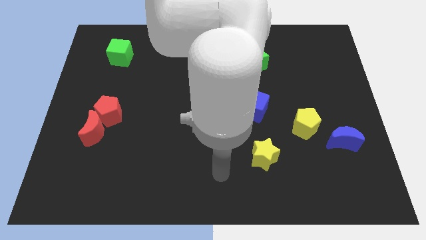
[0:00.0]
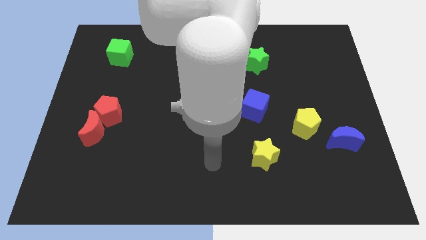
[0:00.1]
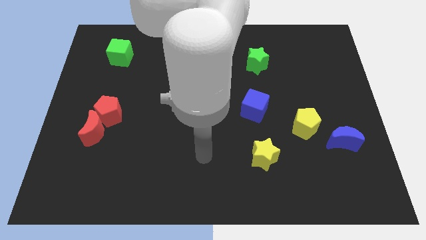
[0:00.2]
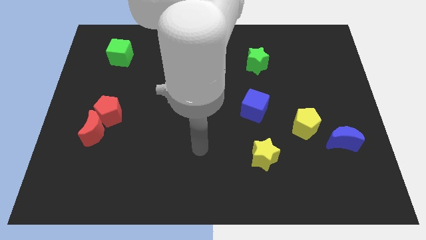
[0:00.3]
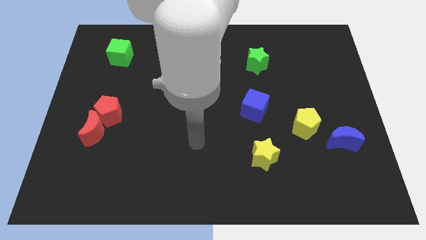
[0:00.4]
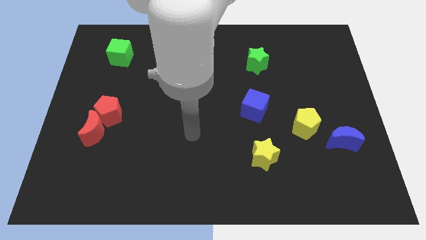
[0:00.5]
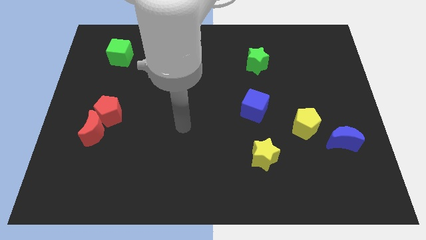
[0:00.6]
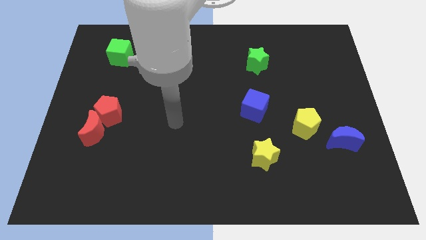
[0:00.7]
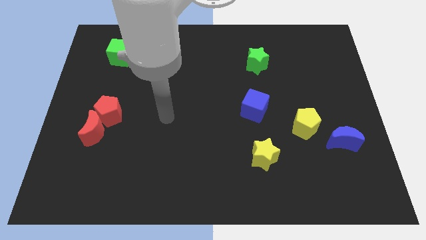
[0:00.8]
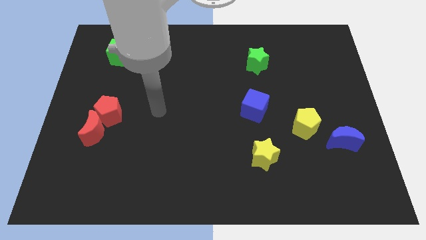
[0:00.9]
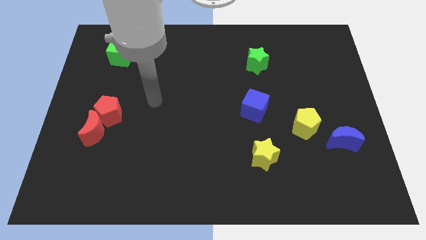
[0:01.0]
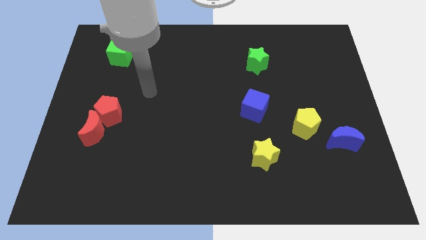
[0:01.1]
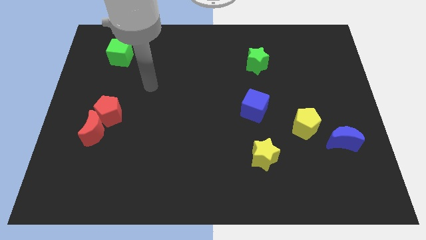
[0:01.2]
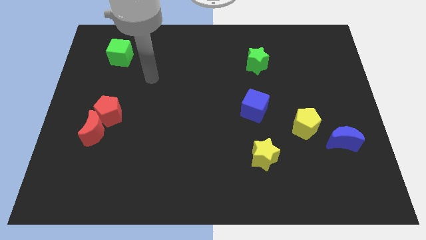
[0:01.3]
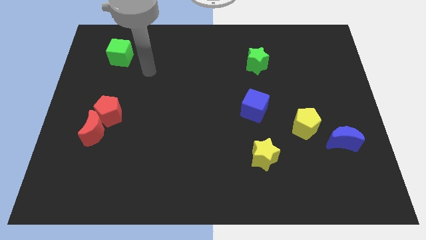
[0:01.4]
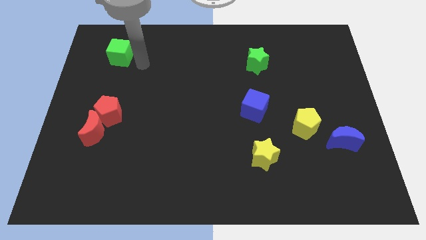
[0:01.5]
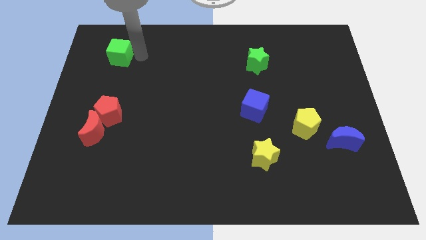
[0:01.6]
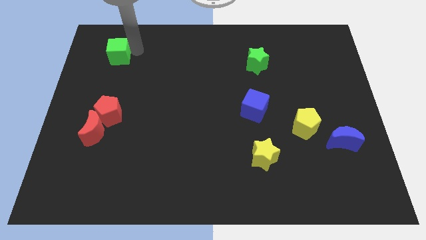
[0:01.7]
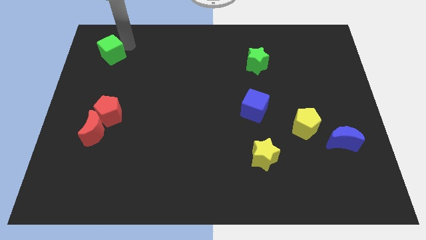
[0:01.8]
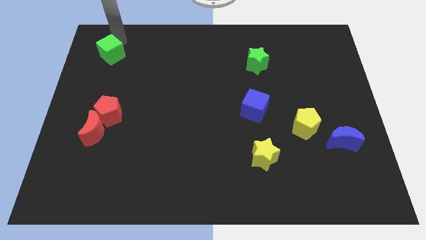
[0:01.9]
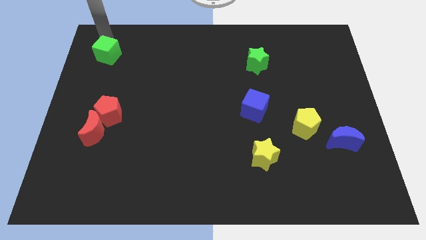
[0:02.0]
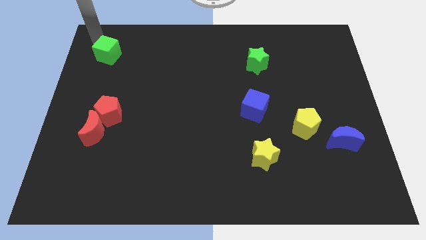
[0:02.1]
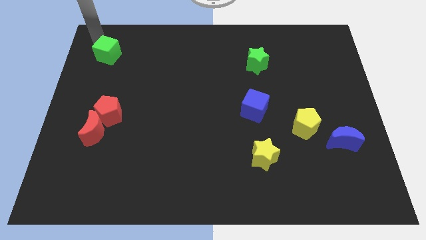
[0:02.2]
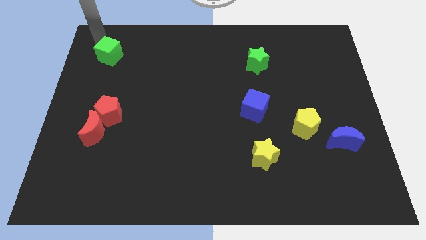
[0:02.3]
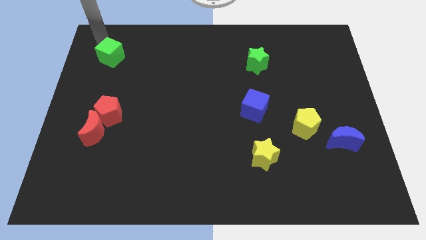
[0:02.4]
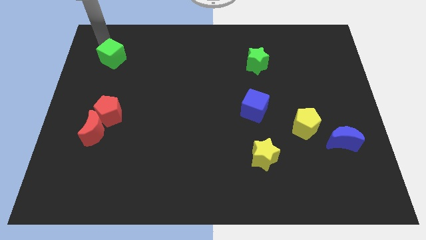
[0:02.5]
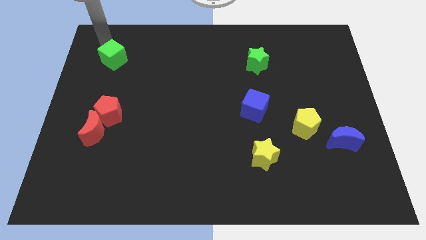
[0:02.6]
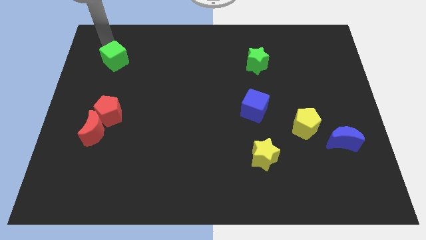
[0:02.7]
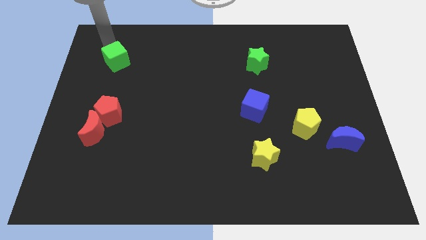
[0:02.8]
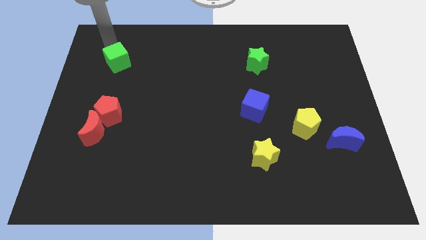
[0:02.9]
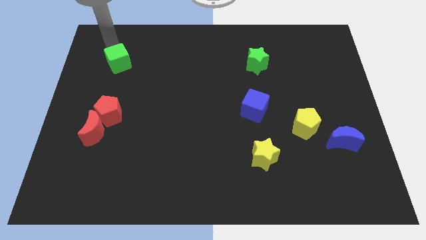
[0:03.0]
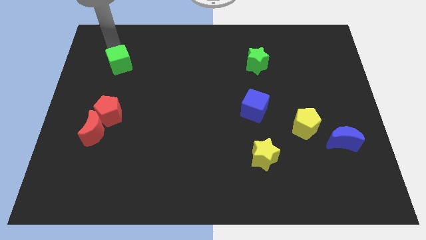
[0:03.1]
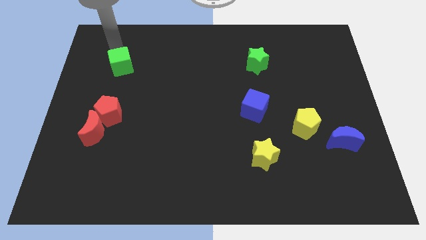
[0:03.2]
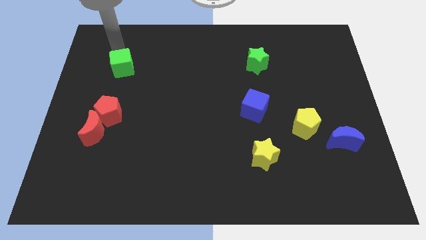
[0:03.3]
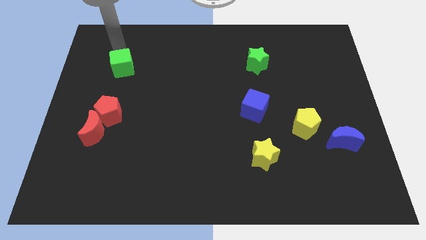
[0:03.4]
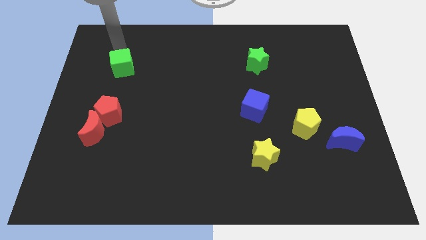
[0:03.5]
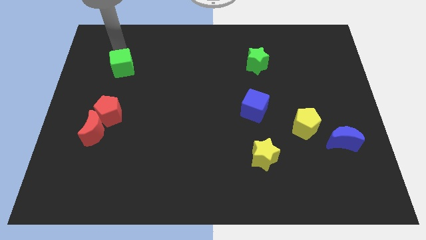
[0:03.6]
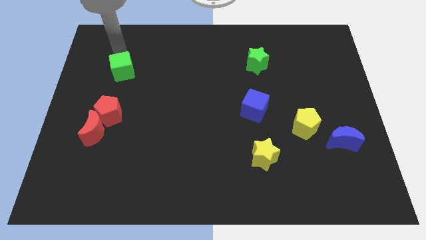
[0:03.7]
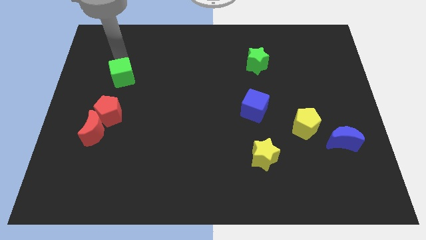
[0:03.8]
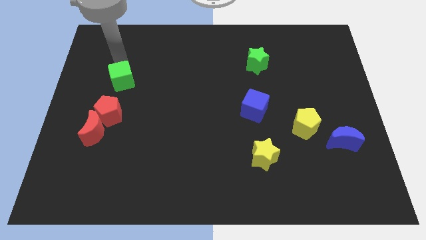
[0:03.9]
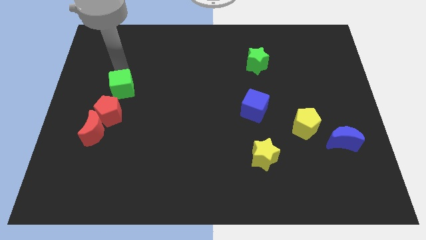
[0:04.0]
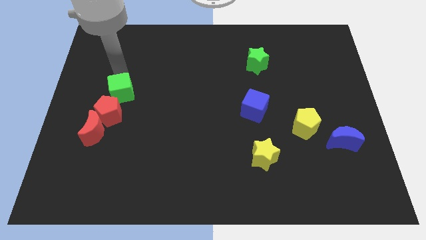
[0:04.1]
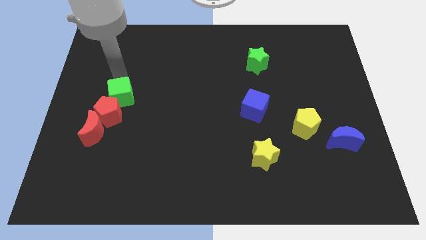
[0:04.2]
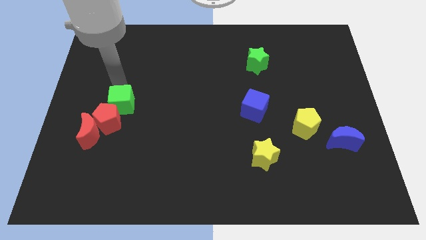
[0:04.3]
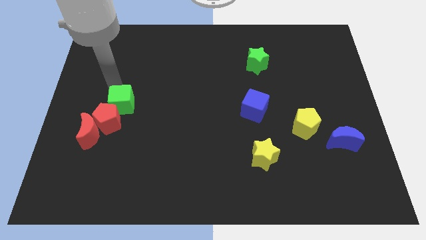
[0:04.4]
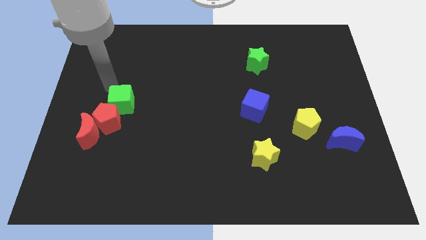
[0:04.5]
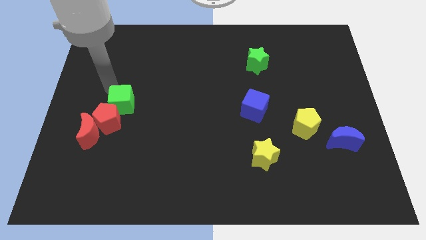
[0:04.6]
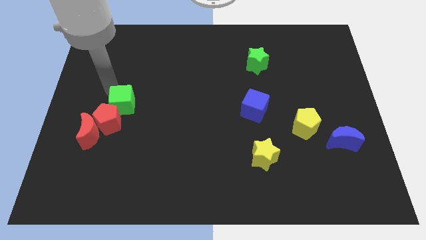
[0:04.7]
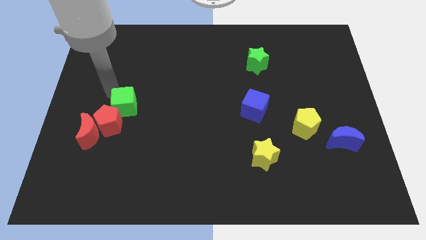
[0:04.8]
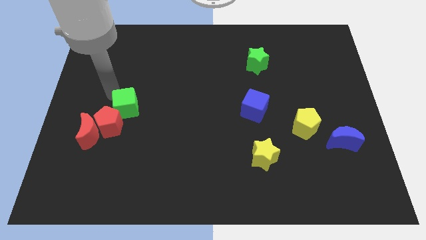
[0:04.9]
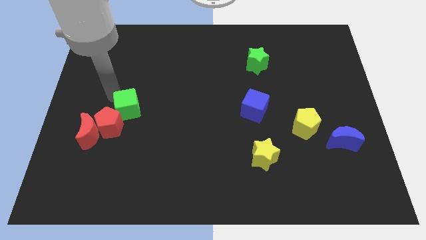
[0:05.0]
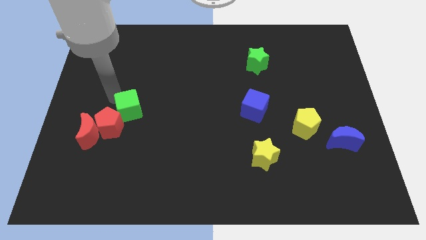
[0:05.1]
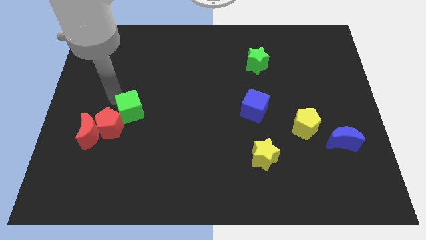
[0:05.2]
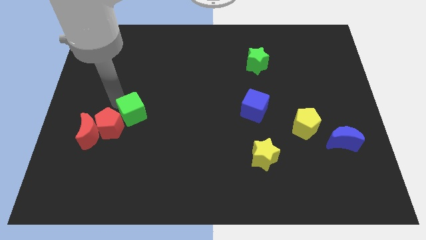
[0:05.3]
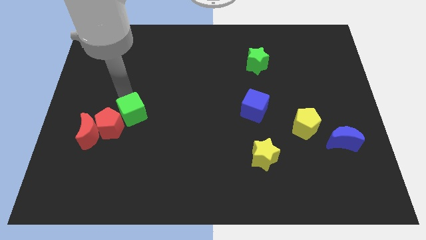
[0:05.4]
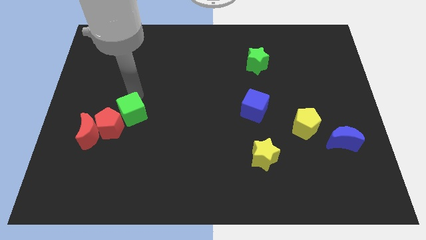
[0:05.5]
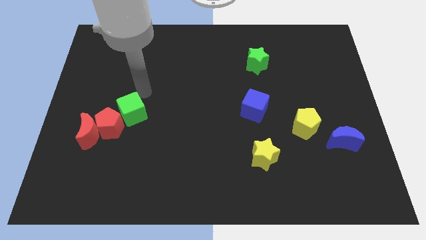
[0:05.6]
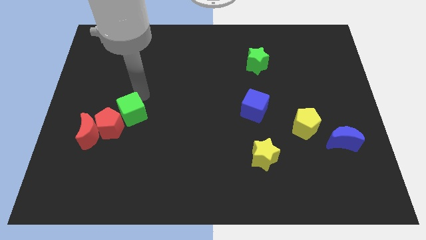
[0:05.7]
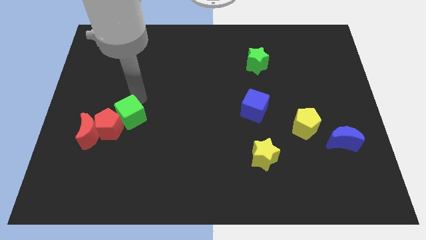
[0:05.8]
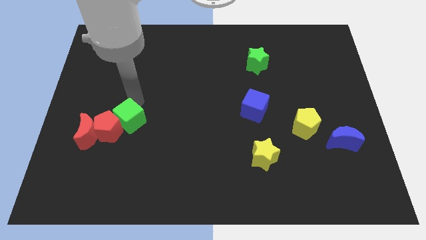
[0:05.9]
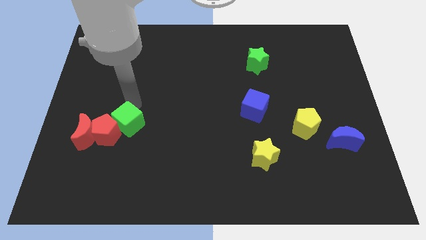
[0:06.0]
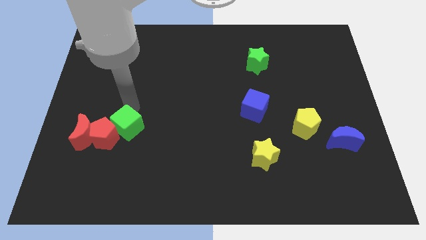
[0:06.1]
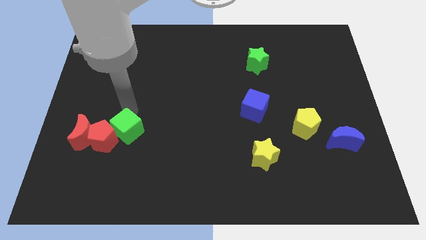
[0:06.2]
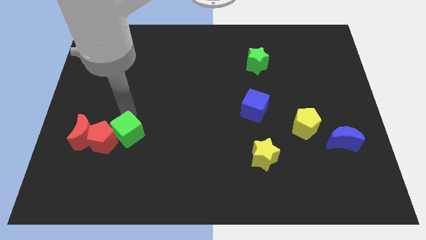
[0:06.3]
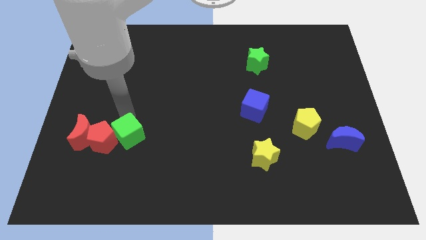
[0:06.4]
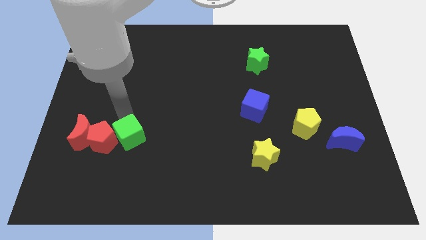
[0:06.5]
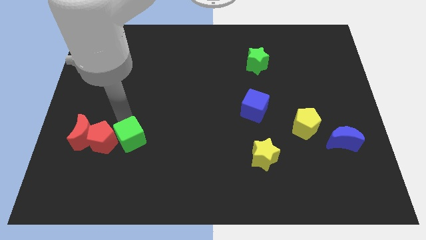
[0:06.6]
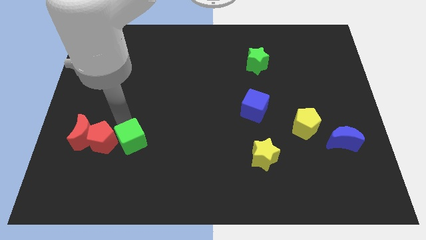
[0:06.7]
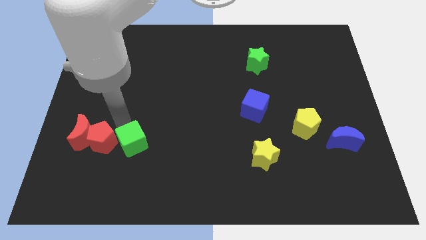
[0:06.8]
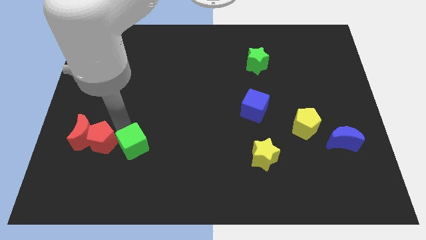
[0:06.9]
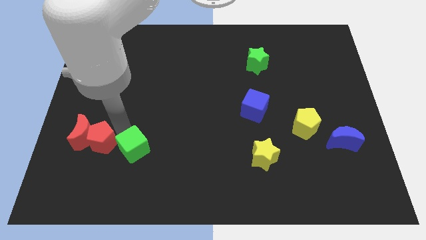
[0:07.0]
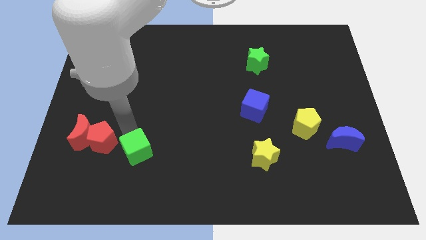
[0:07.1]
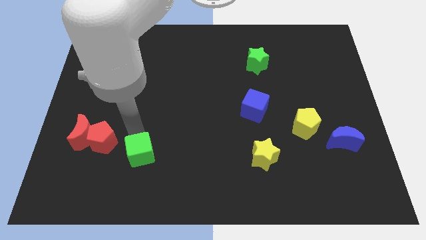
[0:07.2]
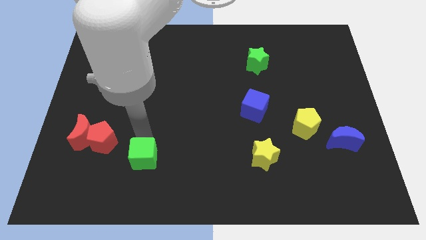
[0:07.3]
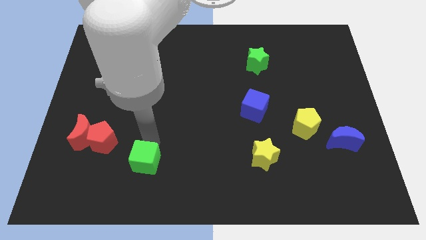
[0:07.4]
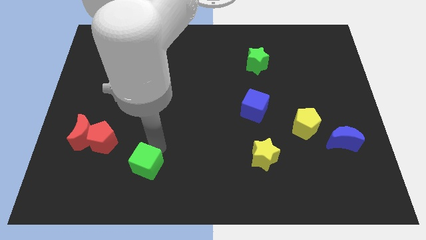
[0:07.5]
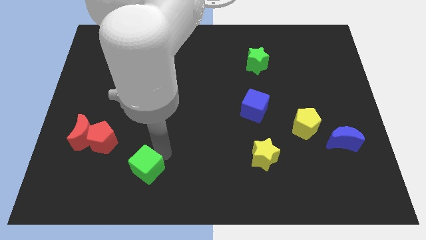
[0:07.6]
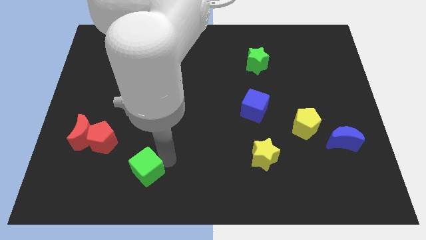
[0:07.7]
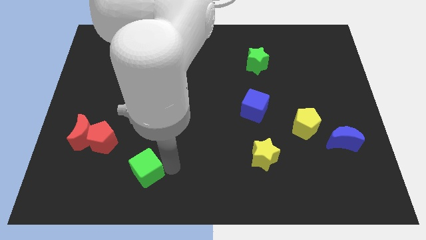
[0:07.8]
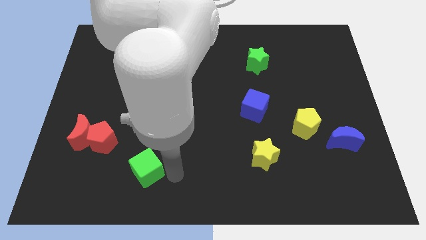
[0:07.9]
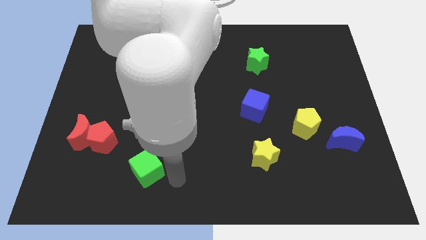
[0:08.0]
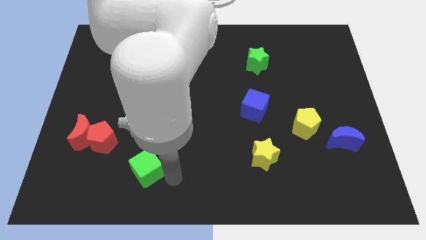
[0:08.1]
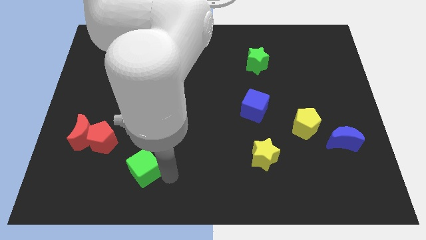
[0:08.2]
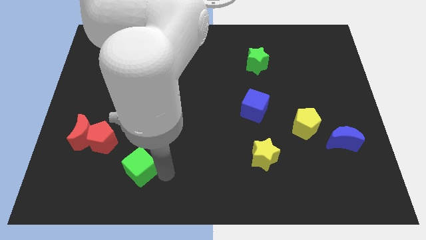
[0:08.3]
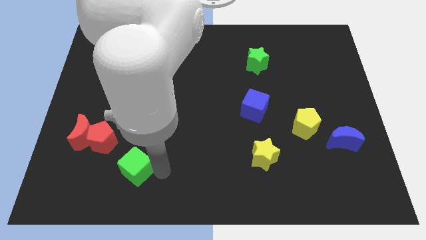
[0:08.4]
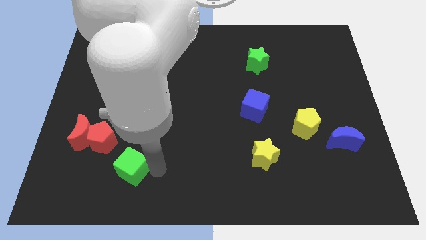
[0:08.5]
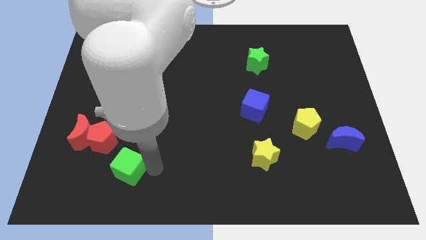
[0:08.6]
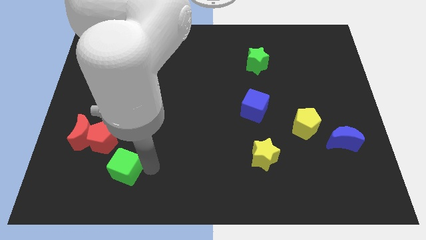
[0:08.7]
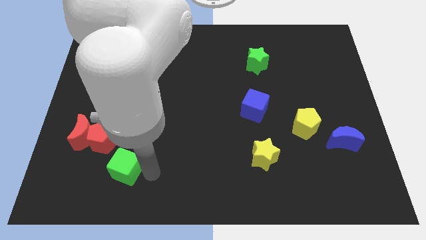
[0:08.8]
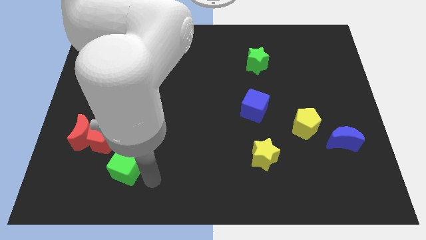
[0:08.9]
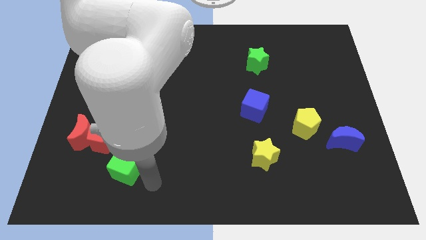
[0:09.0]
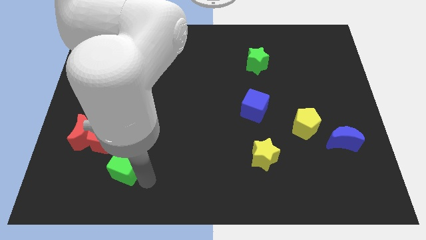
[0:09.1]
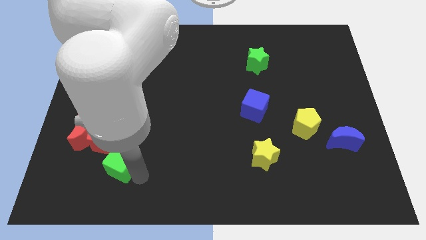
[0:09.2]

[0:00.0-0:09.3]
push the green cube to the bottom right side of the red moon
